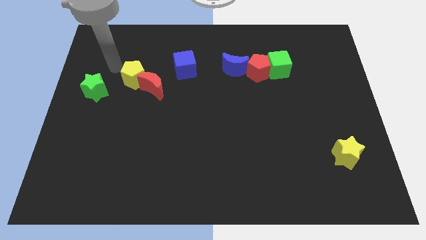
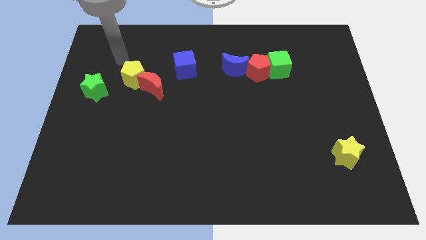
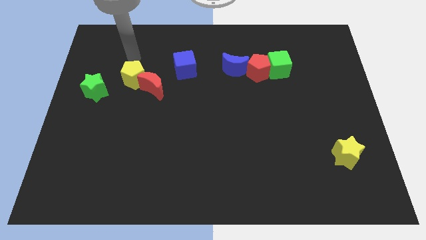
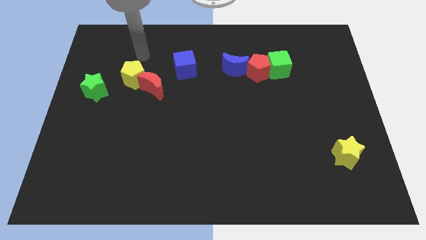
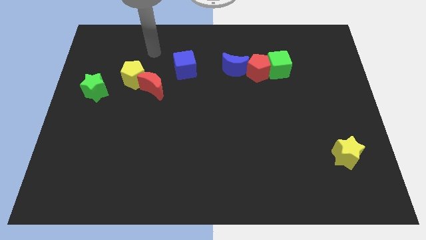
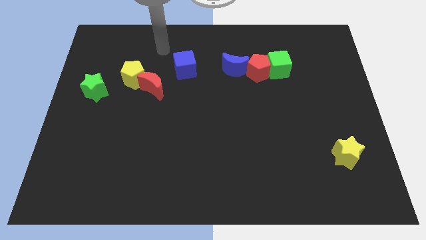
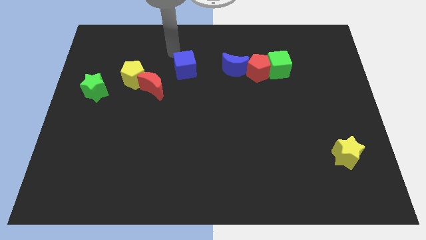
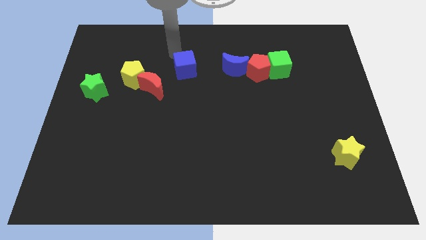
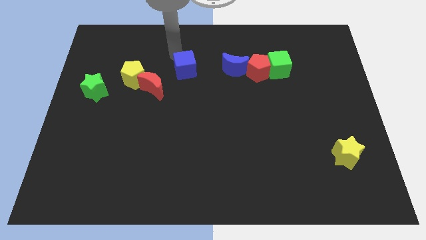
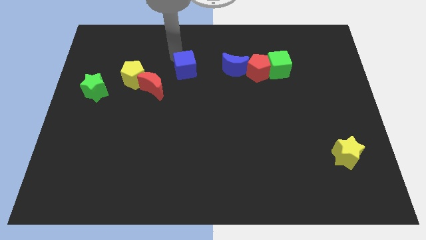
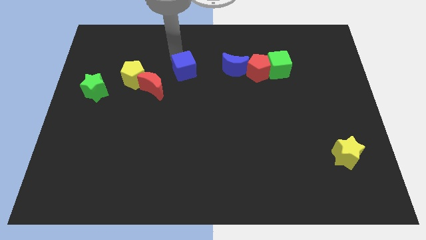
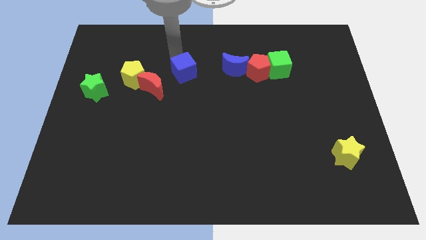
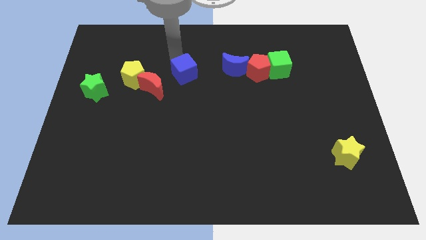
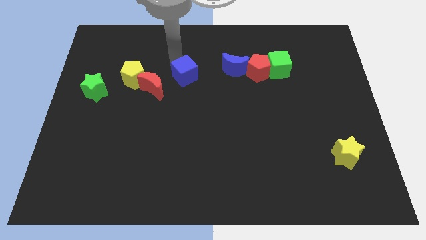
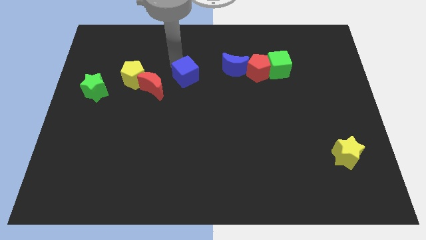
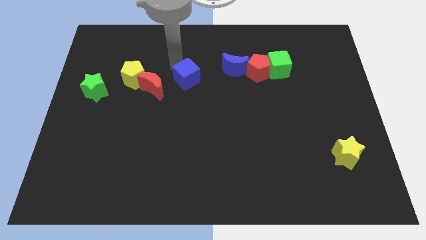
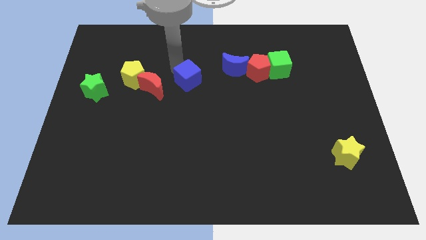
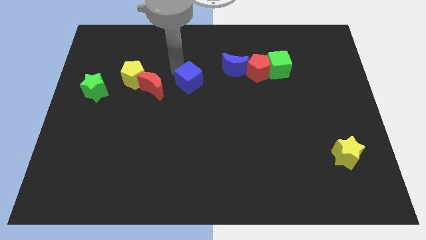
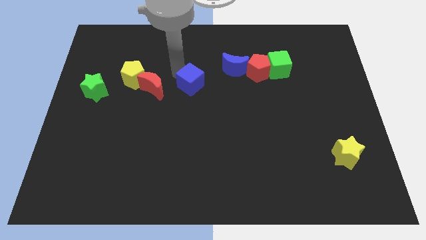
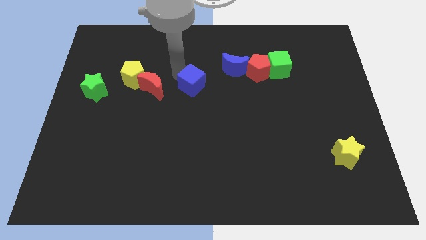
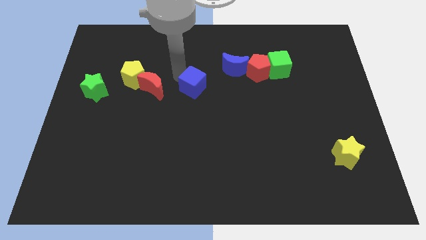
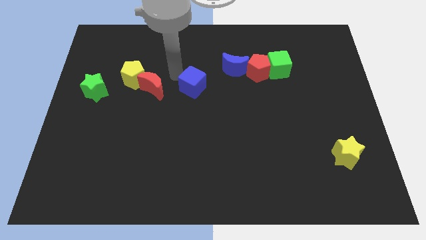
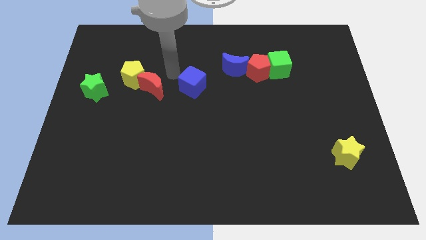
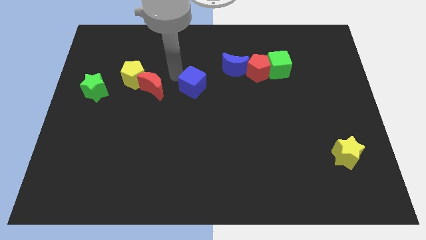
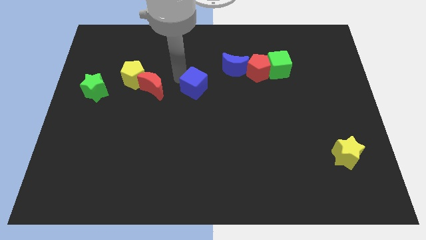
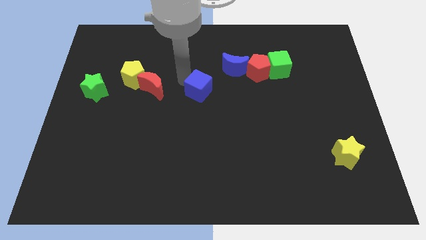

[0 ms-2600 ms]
move the blue cube a little diagonally downwards and right

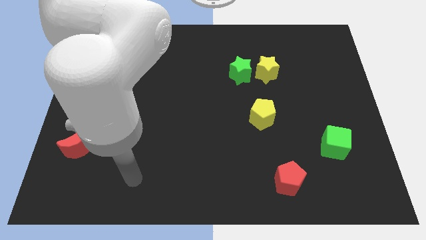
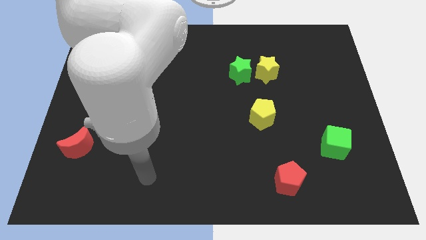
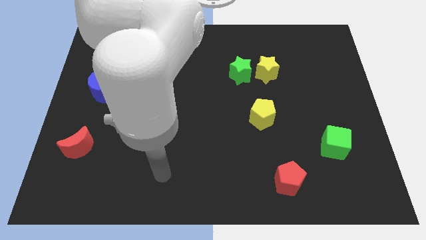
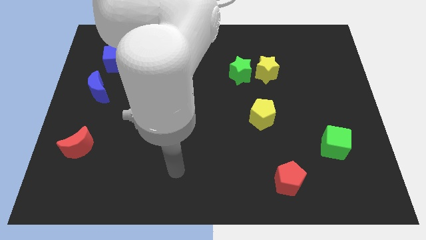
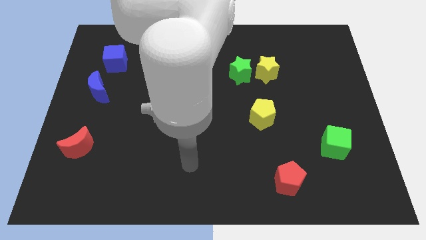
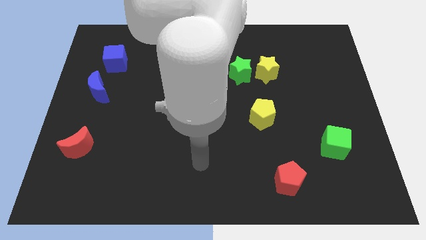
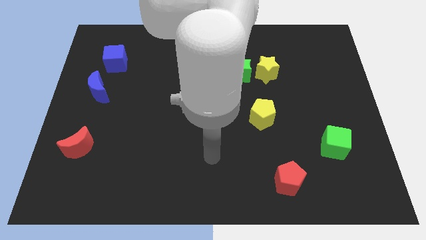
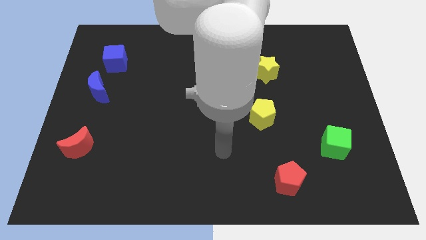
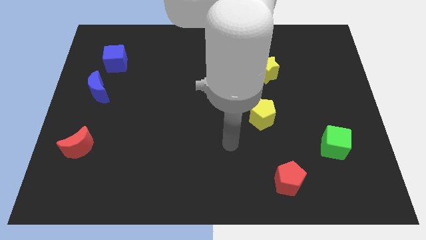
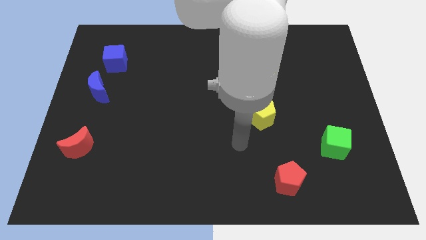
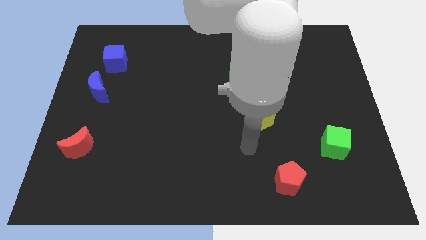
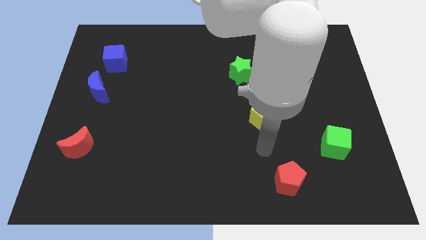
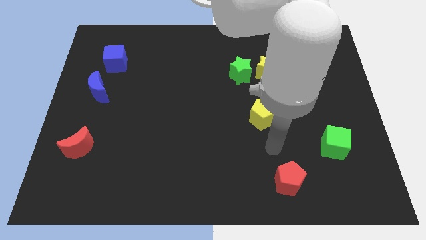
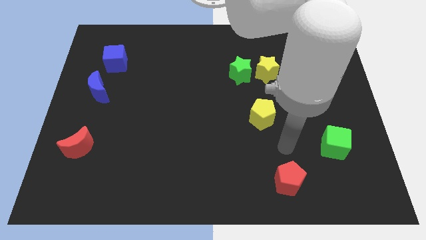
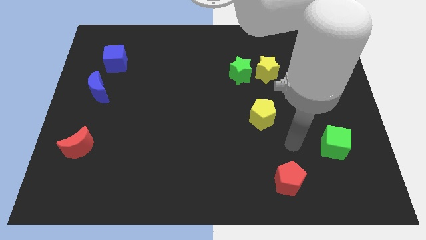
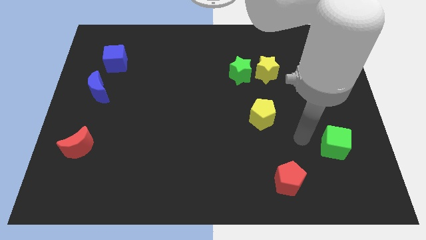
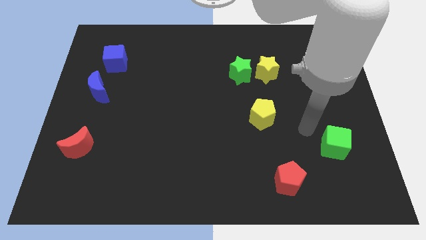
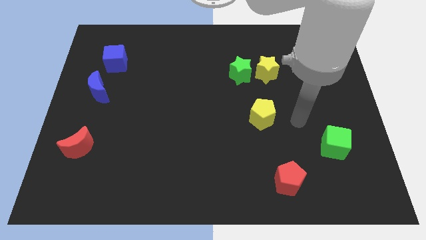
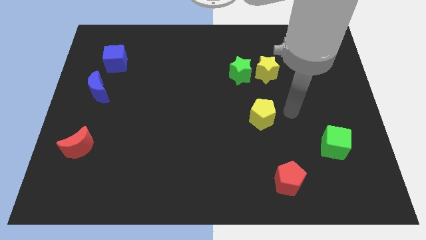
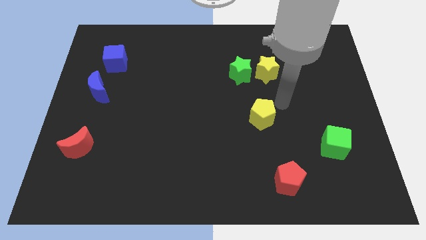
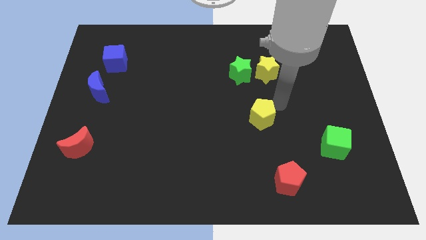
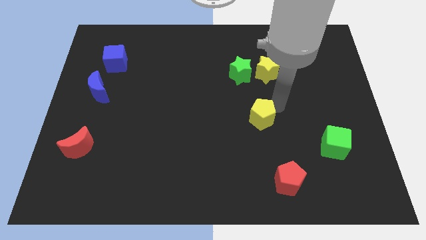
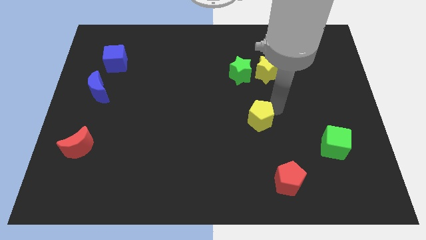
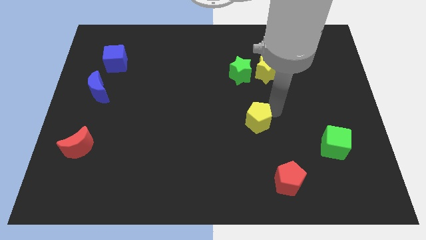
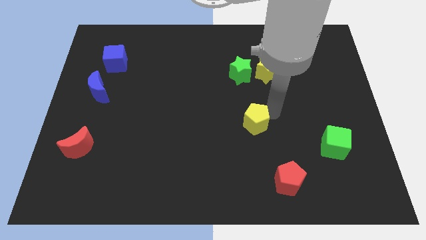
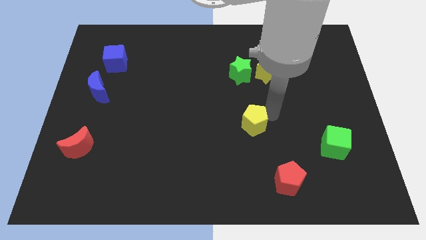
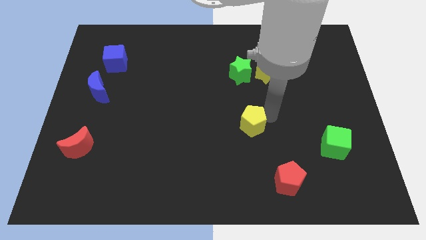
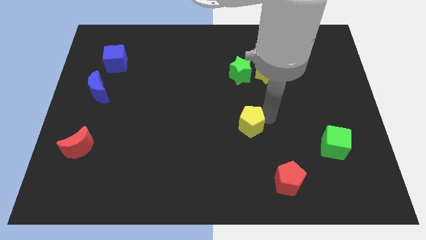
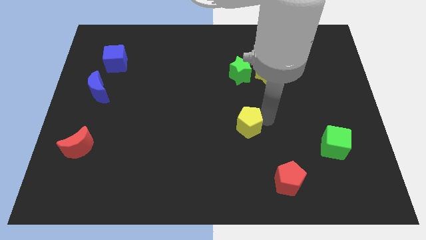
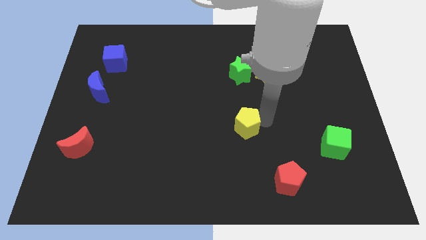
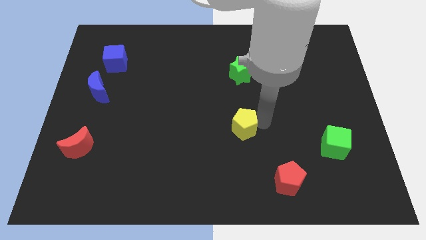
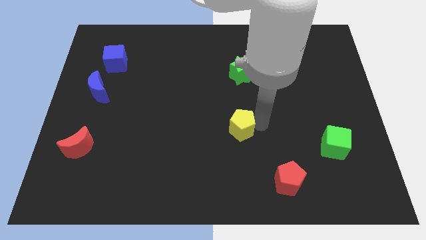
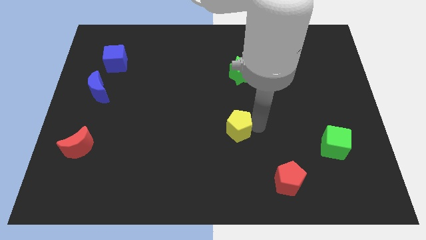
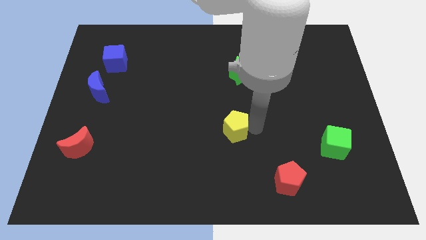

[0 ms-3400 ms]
move the yellow pentagon slightly downwards and left

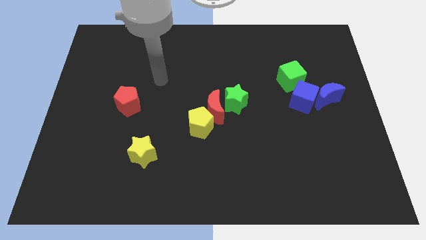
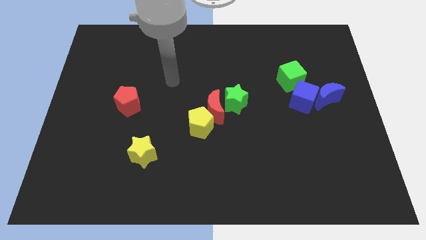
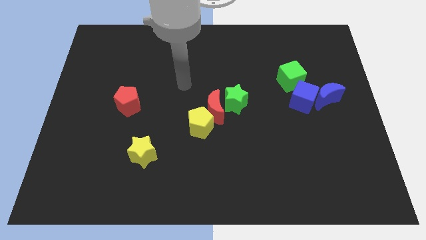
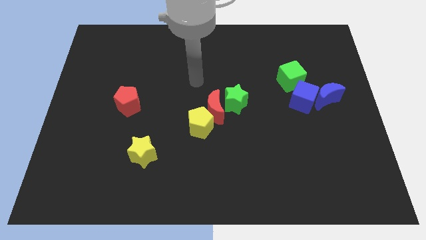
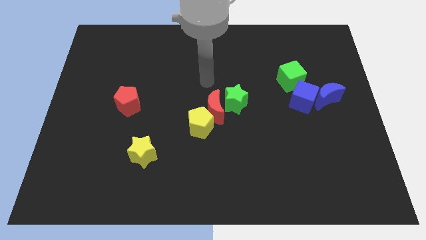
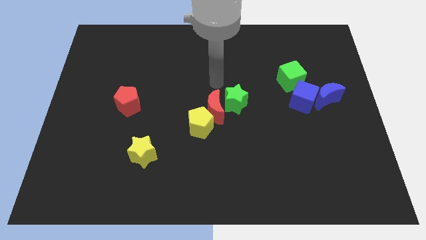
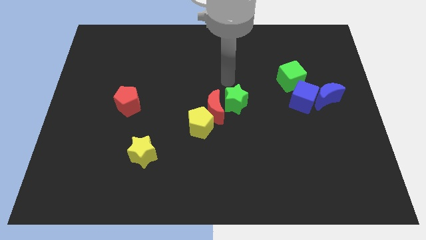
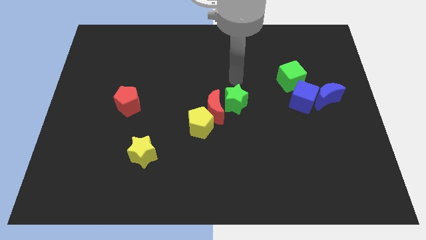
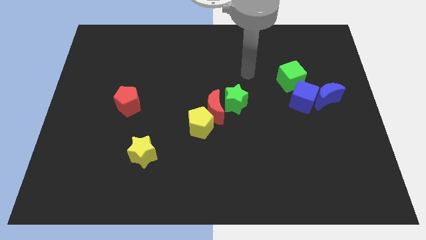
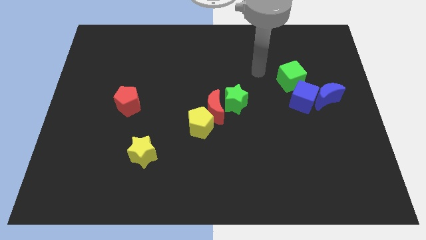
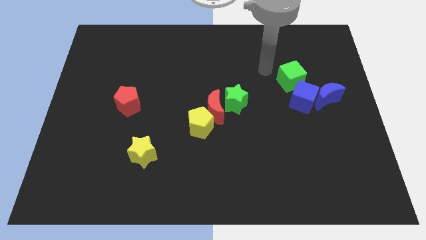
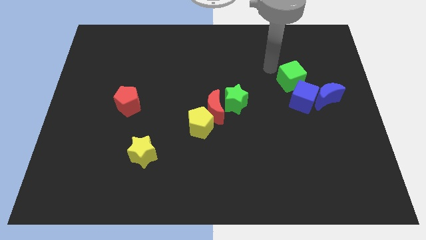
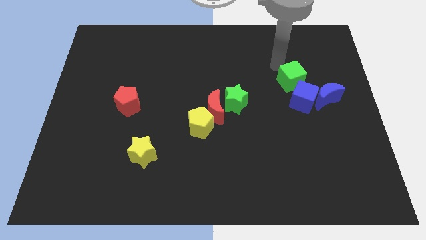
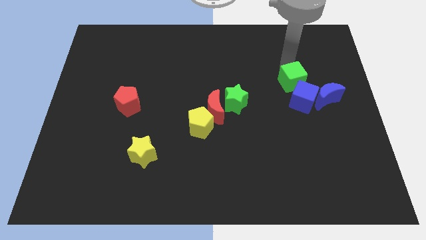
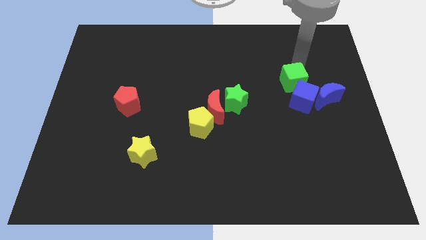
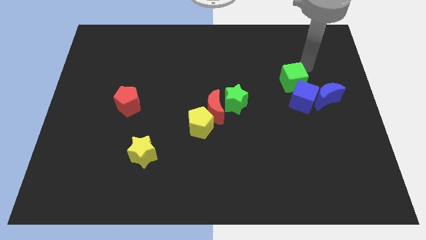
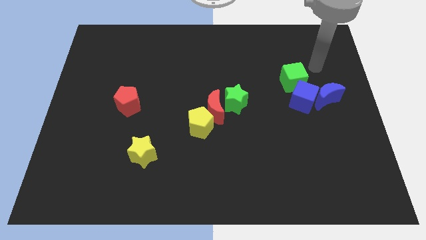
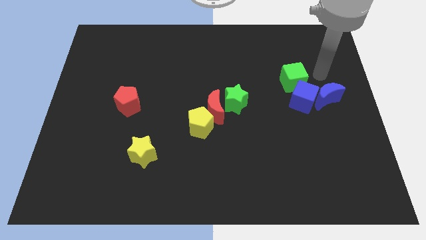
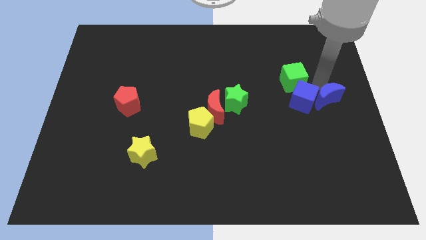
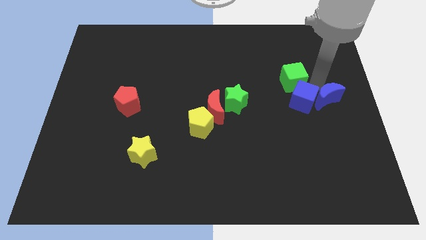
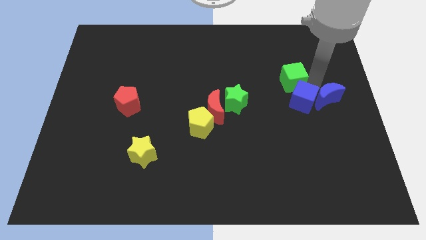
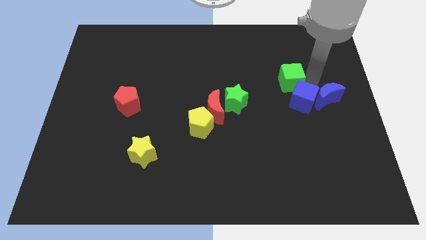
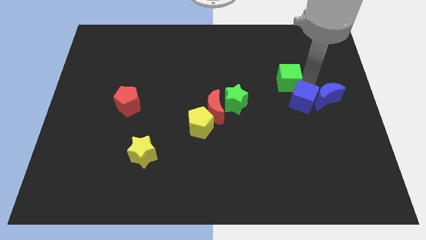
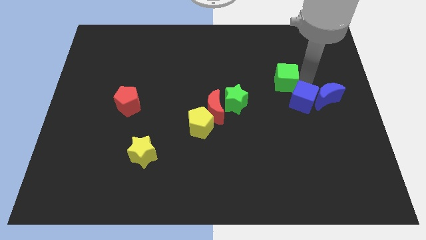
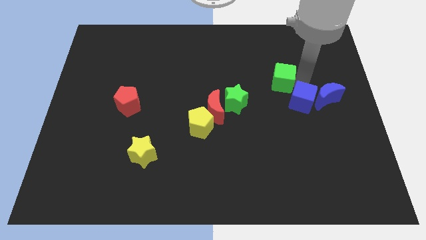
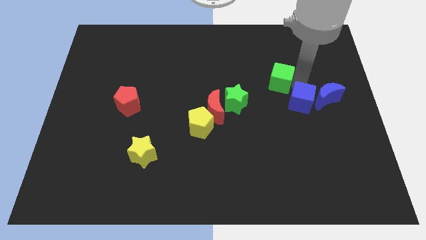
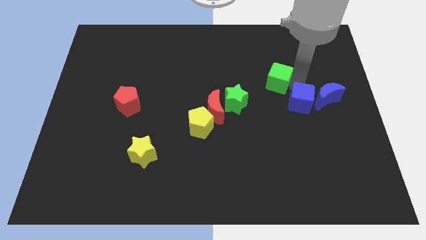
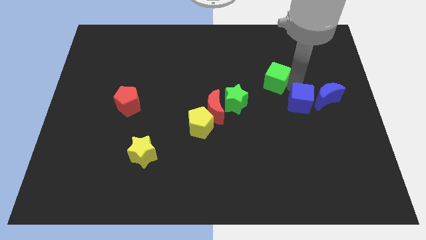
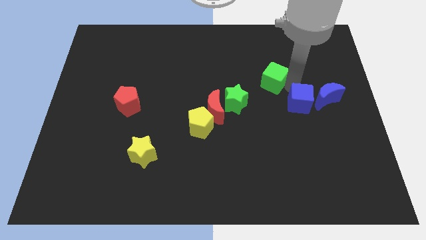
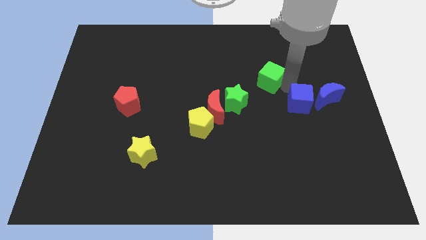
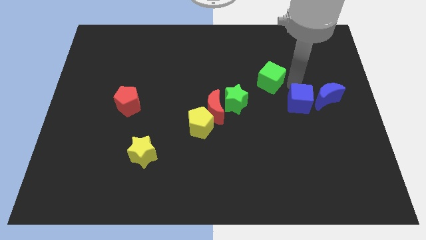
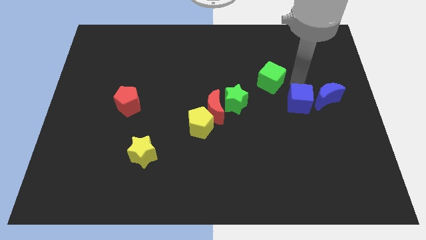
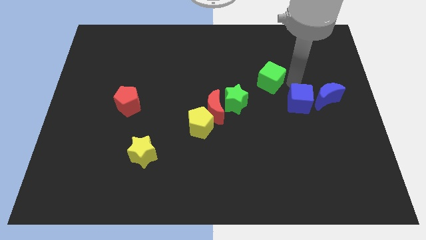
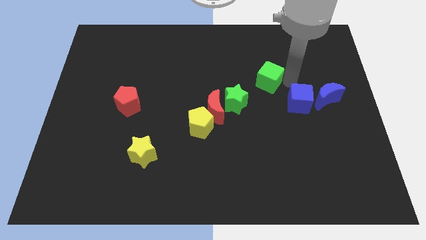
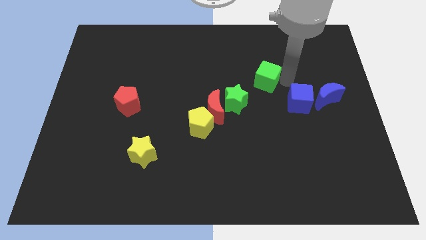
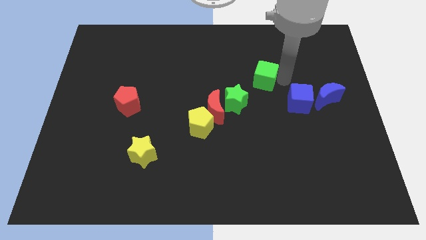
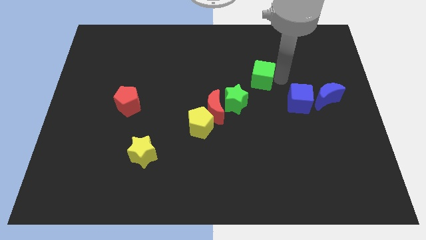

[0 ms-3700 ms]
move the green cube to the left somewhat
